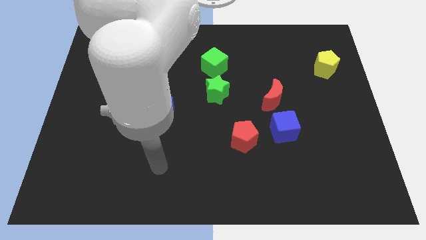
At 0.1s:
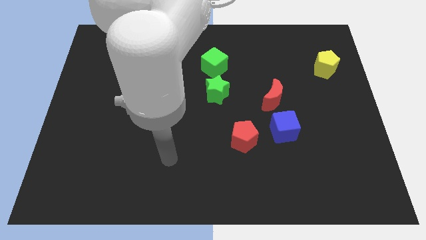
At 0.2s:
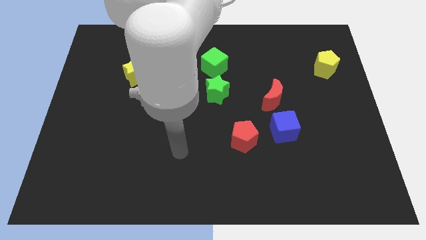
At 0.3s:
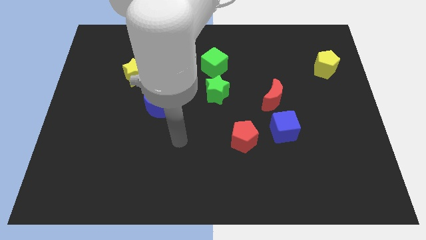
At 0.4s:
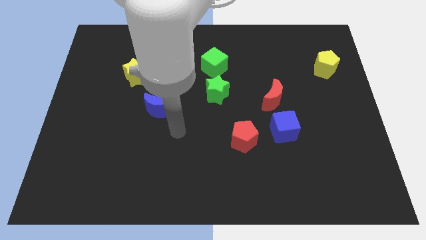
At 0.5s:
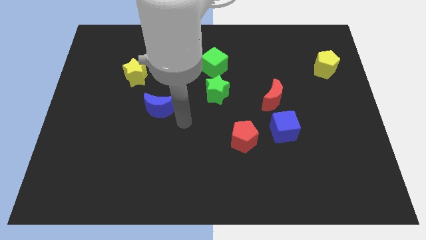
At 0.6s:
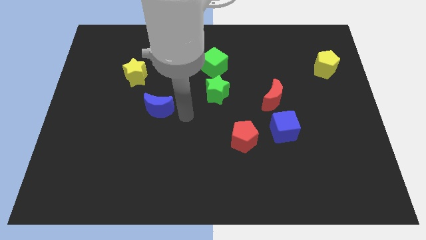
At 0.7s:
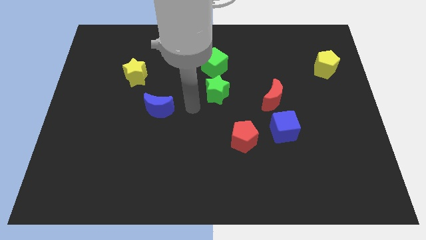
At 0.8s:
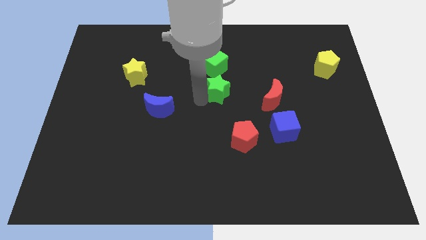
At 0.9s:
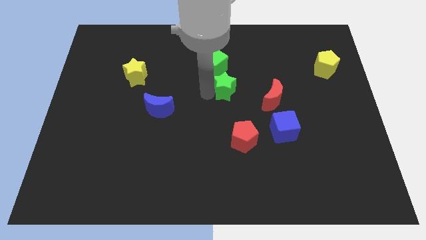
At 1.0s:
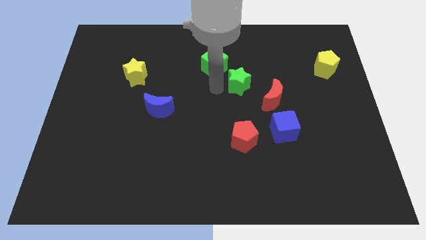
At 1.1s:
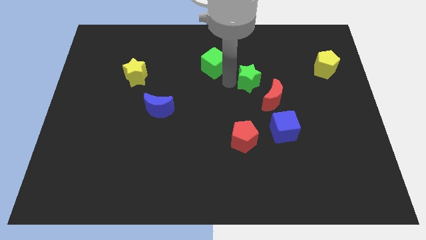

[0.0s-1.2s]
pull the green cube apart from the green star

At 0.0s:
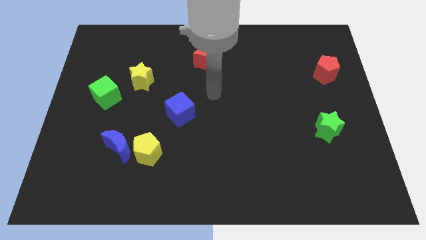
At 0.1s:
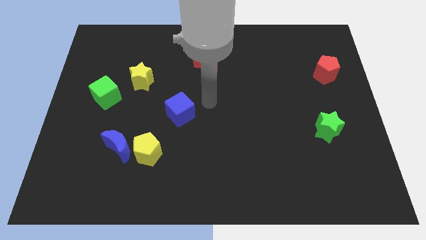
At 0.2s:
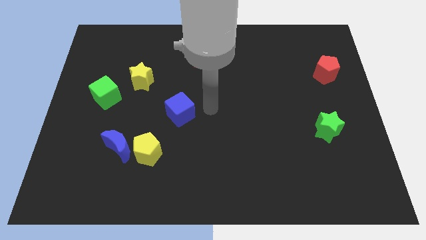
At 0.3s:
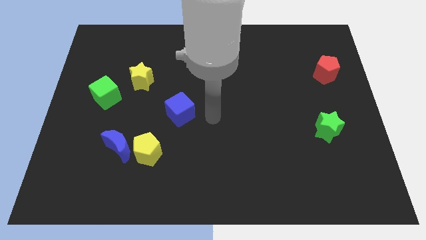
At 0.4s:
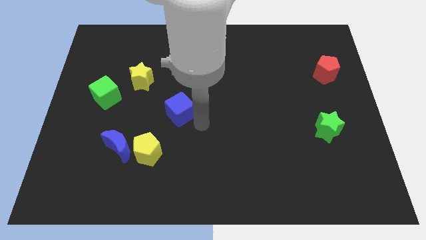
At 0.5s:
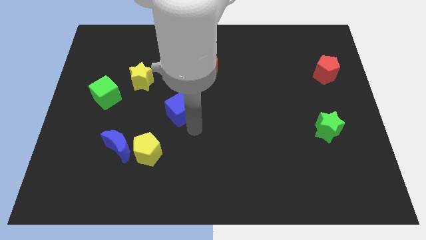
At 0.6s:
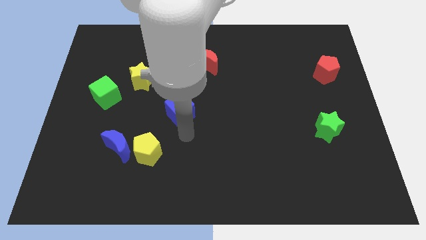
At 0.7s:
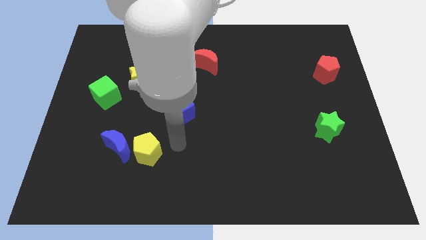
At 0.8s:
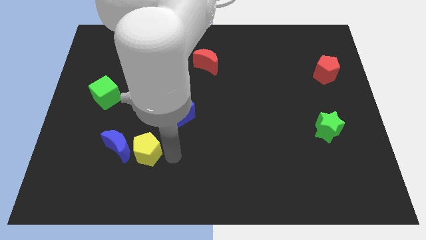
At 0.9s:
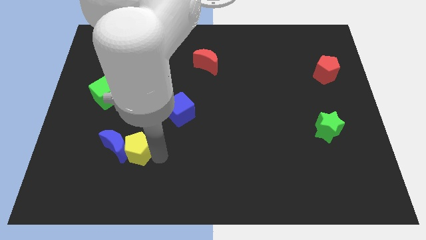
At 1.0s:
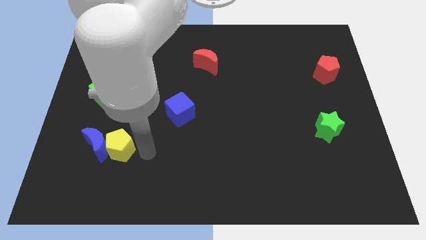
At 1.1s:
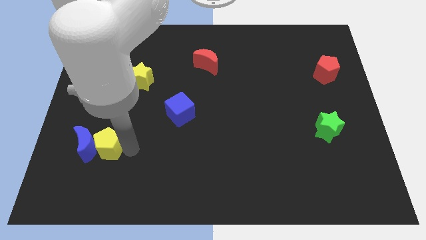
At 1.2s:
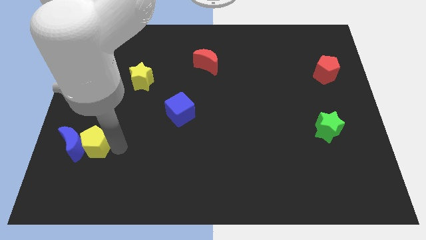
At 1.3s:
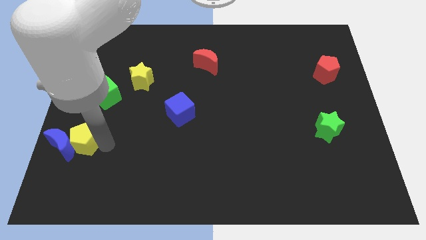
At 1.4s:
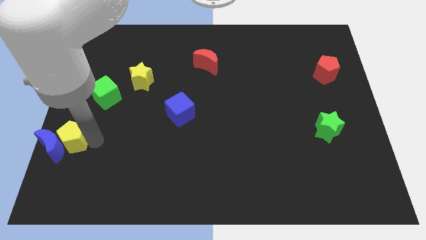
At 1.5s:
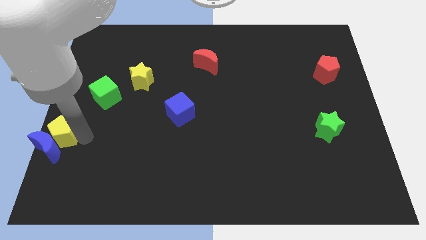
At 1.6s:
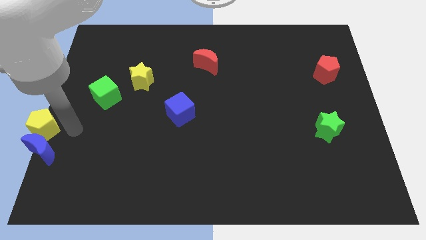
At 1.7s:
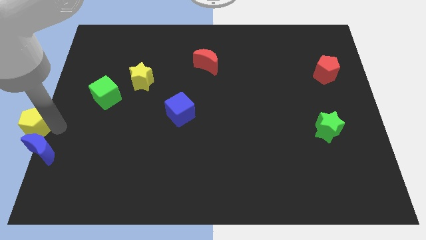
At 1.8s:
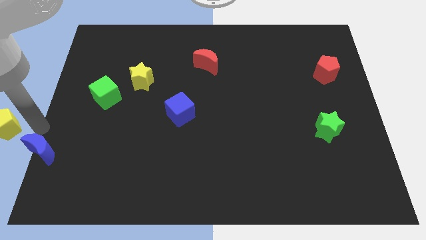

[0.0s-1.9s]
move the blue moon away from the yellow pentagon

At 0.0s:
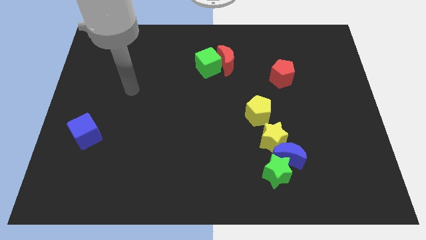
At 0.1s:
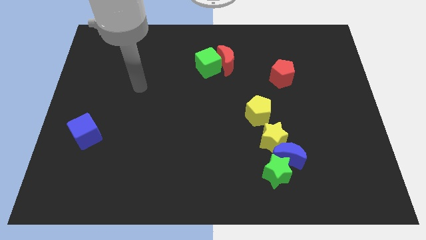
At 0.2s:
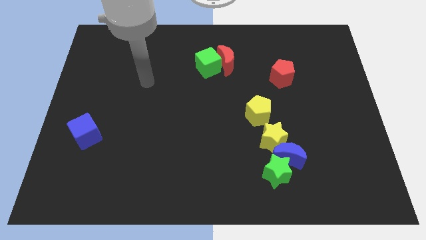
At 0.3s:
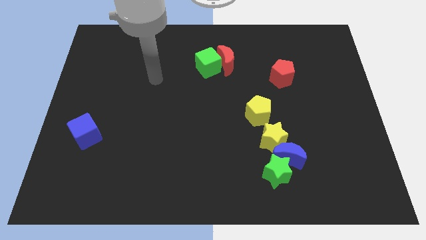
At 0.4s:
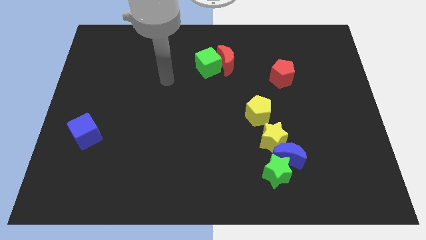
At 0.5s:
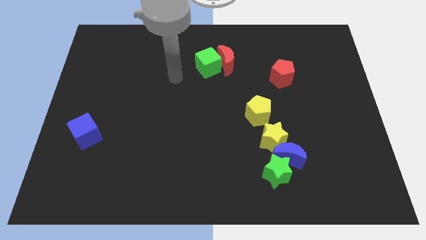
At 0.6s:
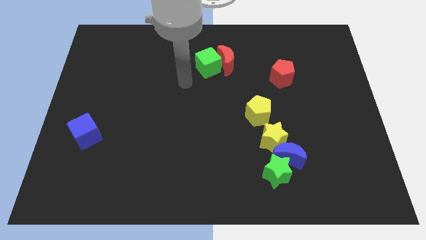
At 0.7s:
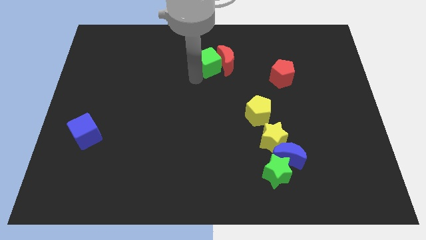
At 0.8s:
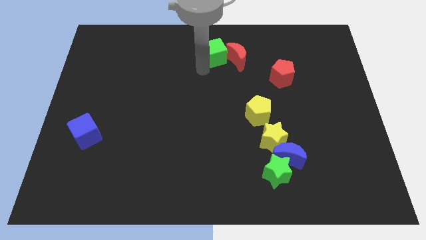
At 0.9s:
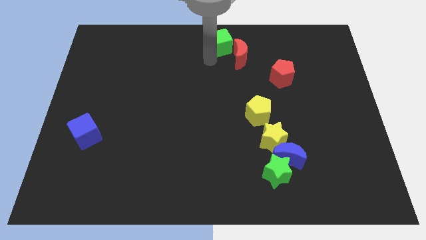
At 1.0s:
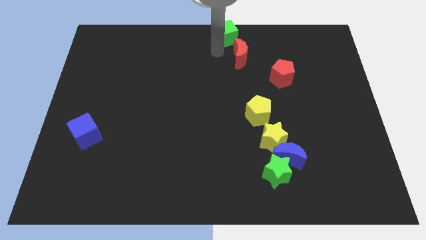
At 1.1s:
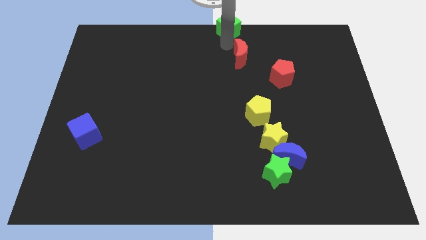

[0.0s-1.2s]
move the red moon away from the green cube

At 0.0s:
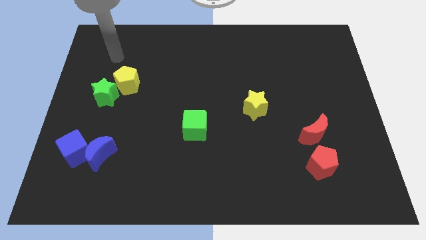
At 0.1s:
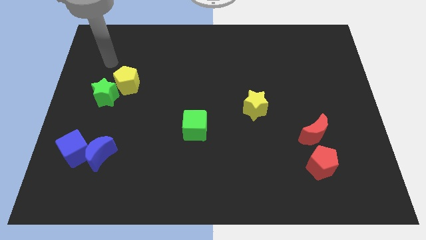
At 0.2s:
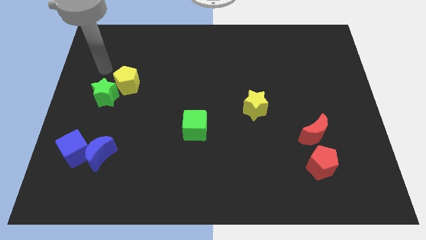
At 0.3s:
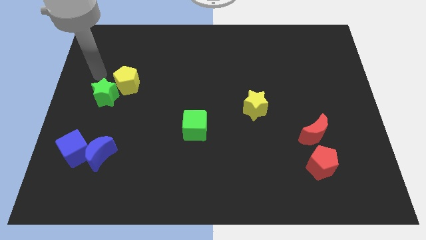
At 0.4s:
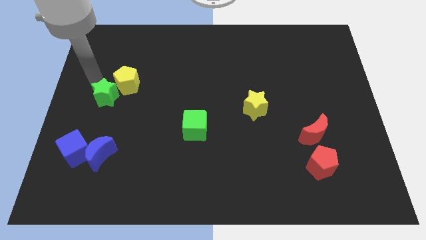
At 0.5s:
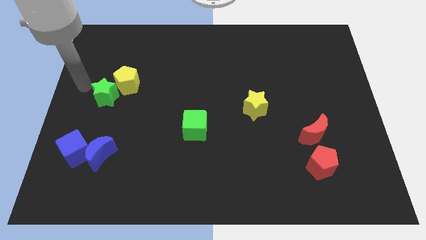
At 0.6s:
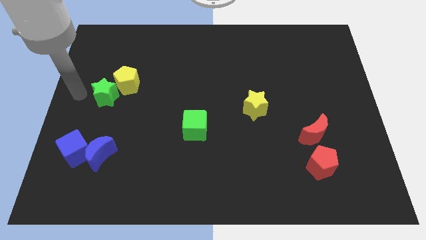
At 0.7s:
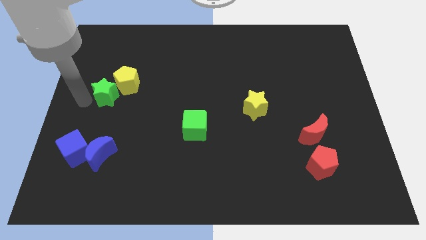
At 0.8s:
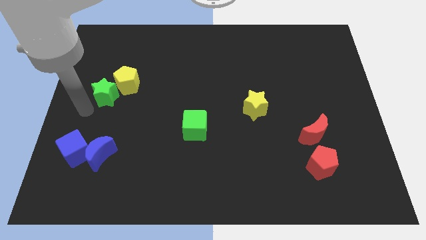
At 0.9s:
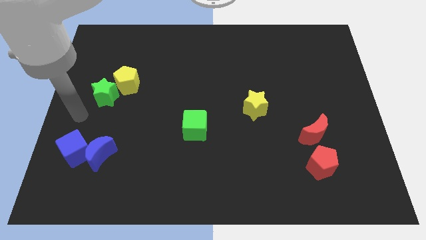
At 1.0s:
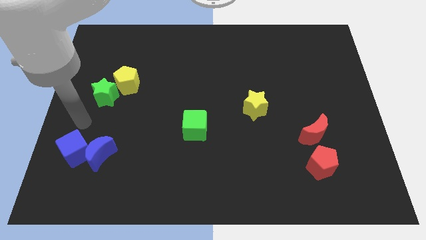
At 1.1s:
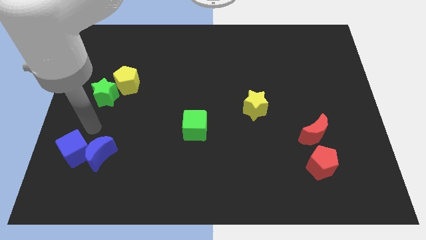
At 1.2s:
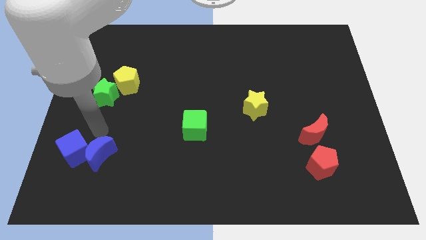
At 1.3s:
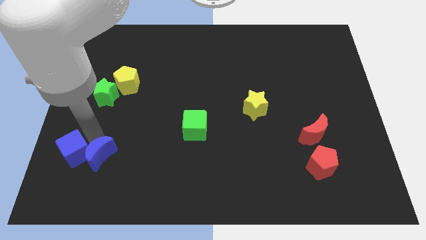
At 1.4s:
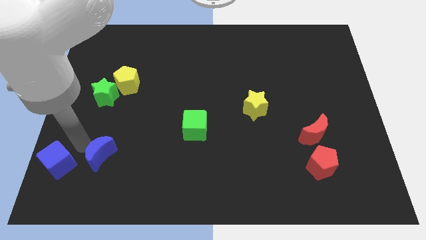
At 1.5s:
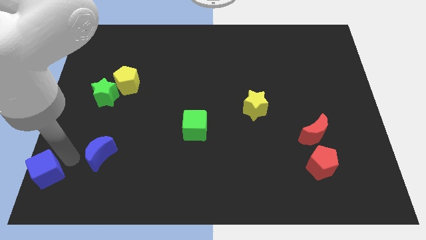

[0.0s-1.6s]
separate the blue moon from the blue cube

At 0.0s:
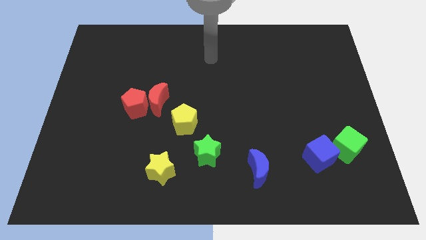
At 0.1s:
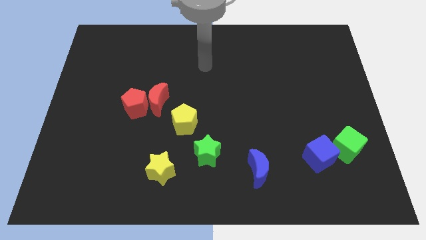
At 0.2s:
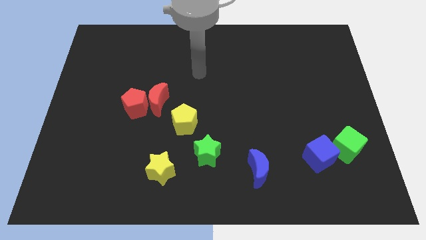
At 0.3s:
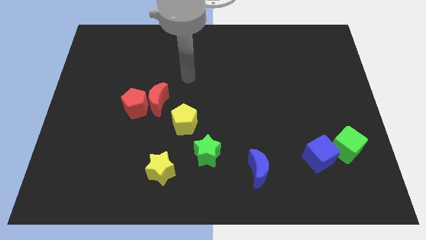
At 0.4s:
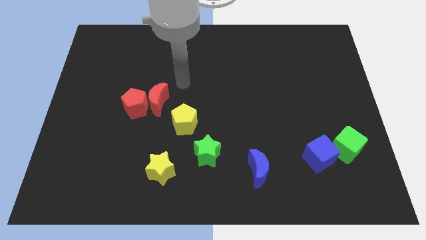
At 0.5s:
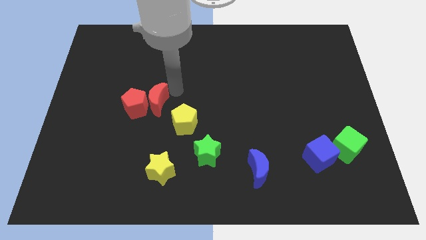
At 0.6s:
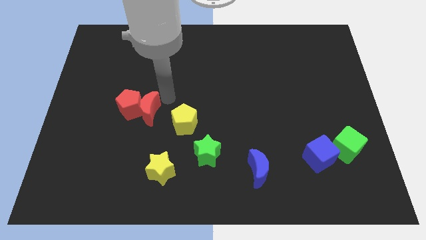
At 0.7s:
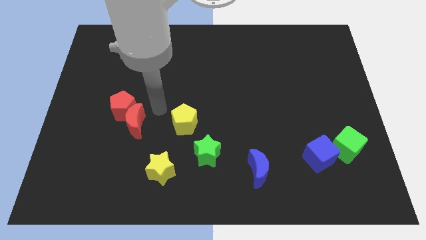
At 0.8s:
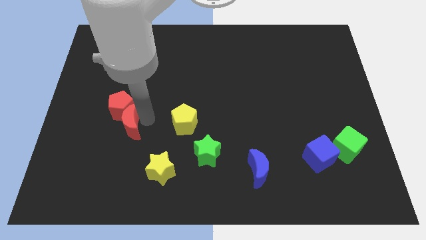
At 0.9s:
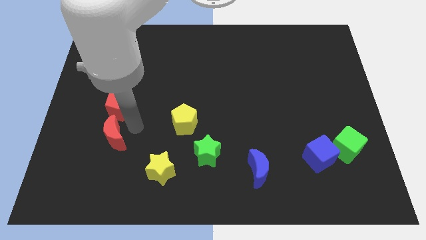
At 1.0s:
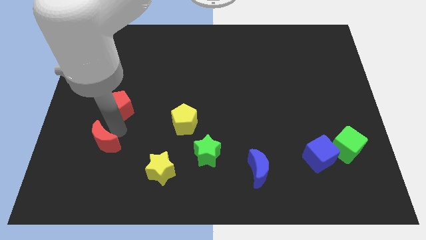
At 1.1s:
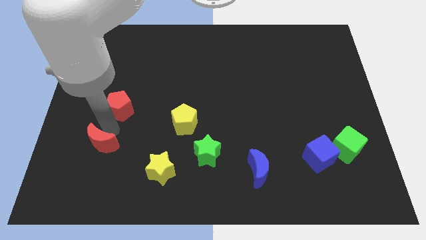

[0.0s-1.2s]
move the red pentagon away from the red moon

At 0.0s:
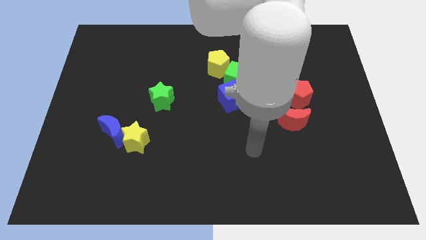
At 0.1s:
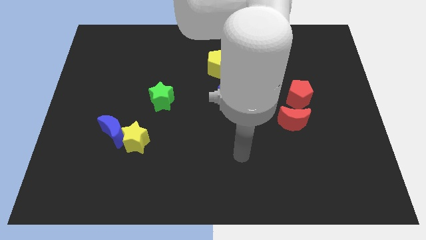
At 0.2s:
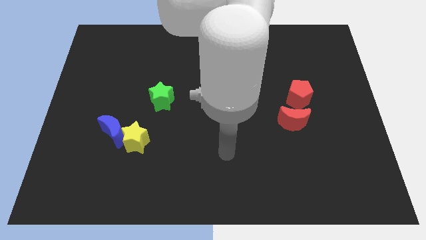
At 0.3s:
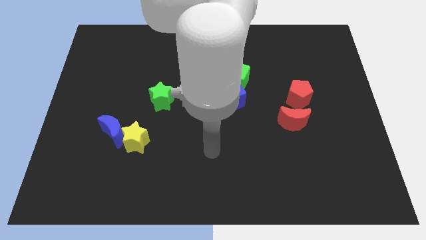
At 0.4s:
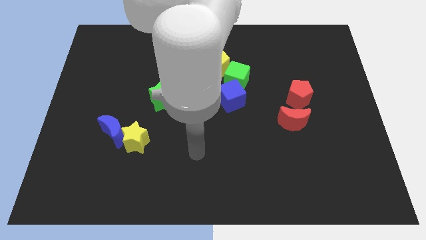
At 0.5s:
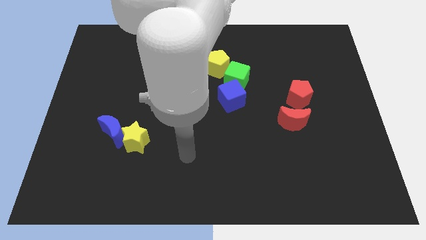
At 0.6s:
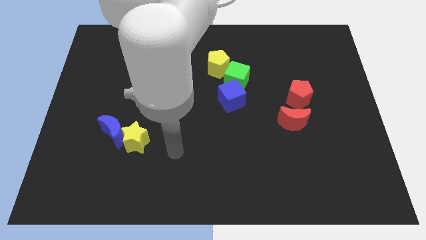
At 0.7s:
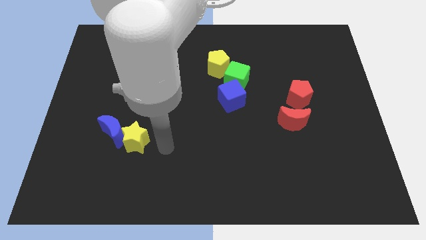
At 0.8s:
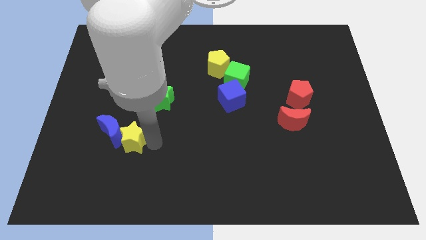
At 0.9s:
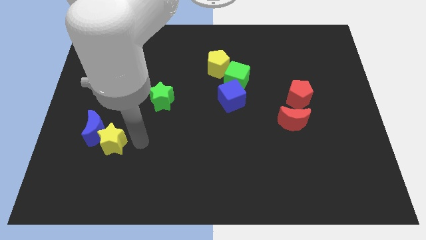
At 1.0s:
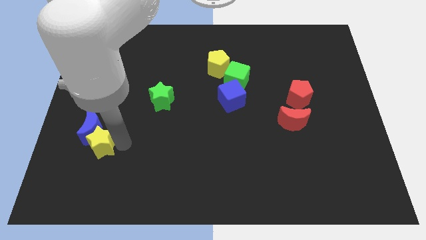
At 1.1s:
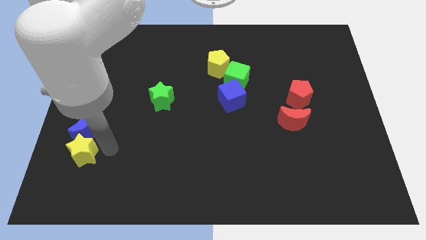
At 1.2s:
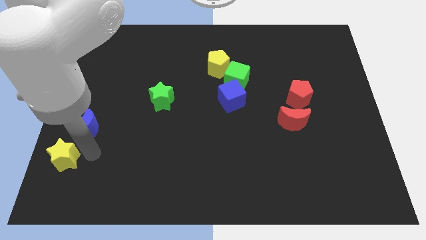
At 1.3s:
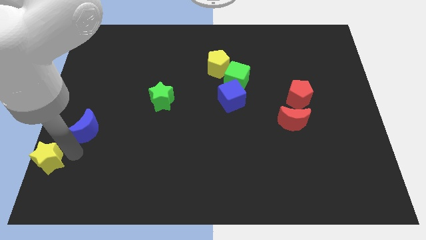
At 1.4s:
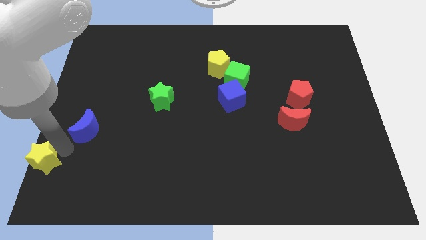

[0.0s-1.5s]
pull the blue moon apart from the yellow star

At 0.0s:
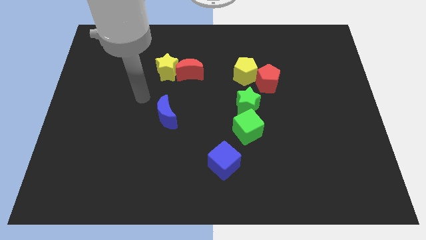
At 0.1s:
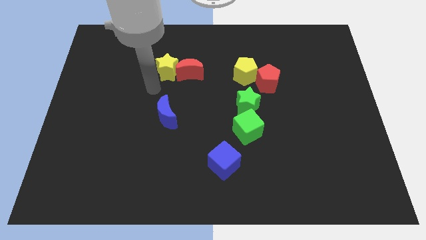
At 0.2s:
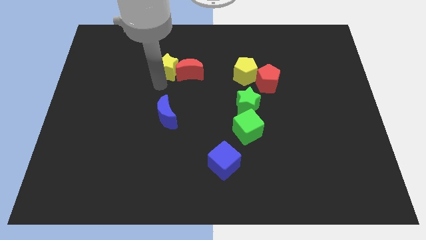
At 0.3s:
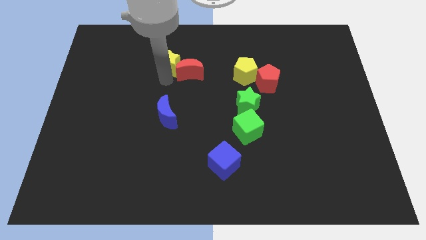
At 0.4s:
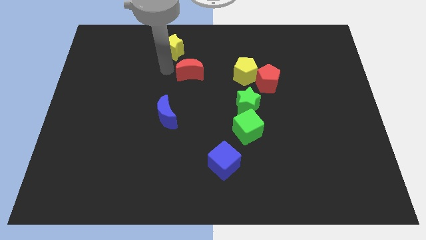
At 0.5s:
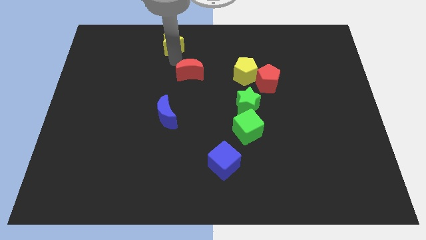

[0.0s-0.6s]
separate the red moon from the yellow star
